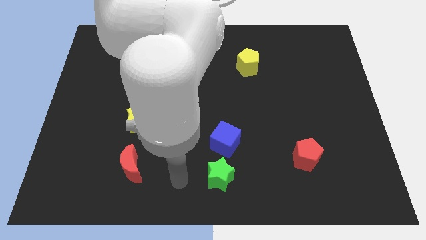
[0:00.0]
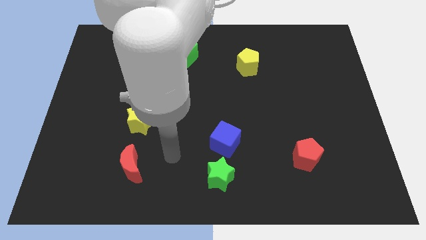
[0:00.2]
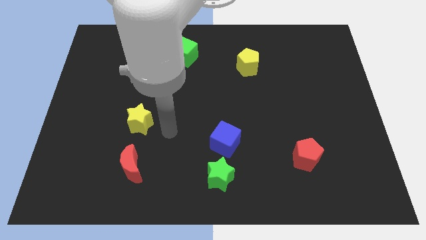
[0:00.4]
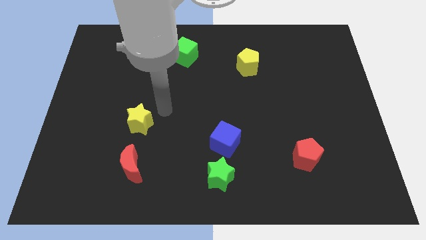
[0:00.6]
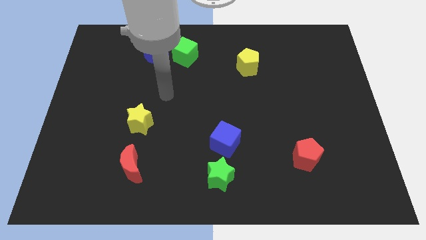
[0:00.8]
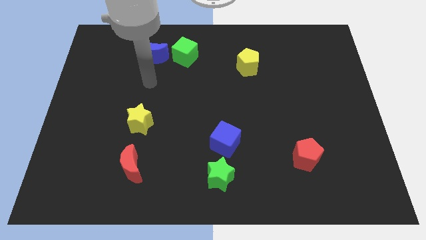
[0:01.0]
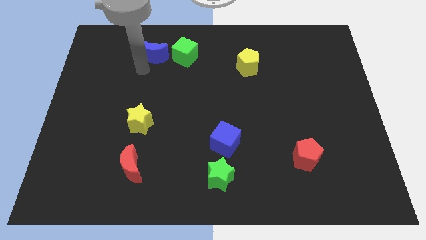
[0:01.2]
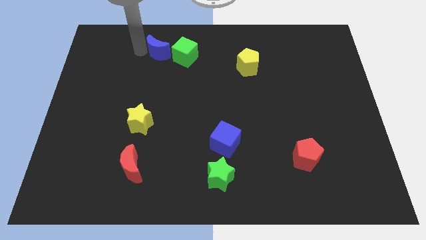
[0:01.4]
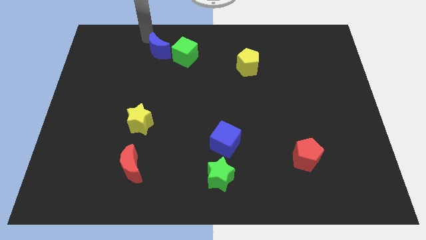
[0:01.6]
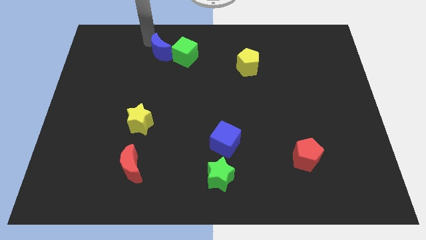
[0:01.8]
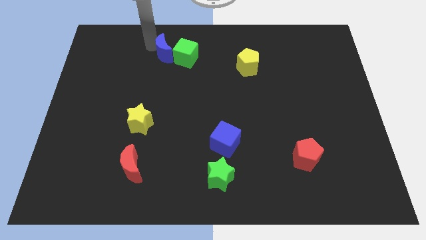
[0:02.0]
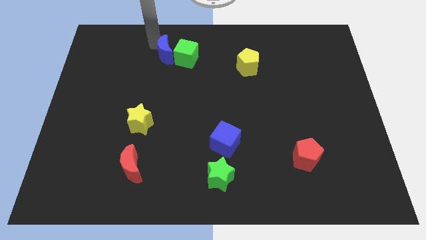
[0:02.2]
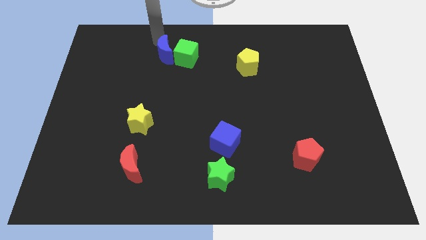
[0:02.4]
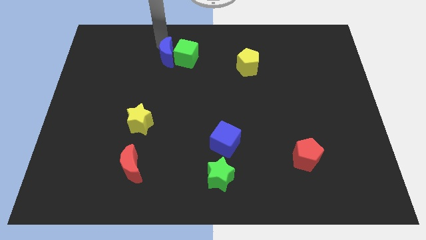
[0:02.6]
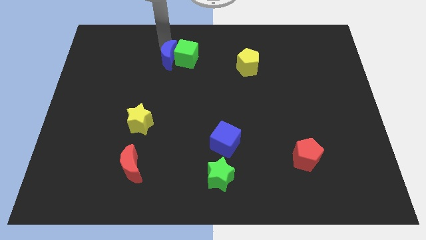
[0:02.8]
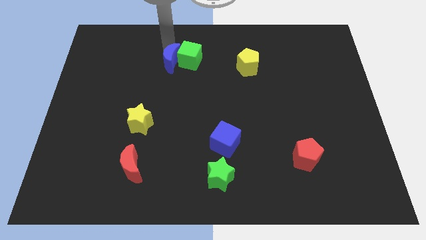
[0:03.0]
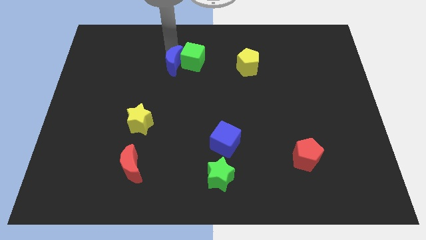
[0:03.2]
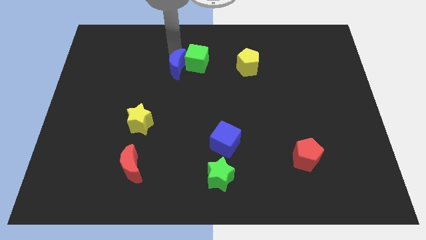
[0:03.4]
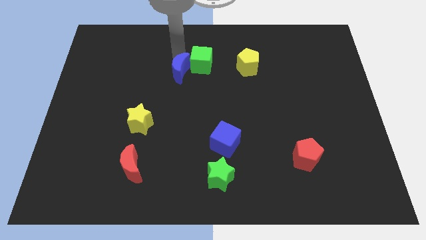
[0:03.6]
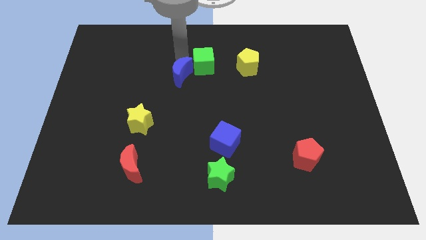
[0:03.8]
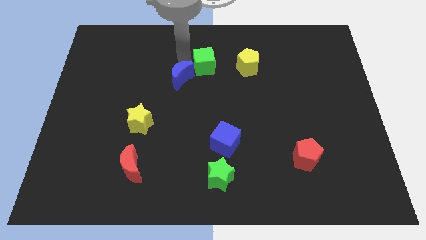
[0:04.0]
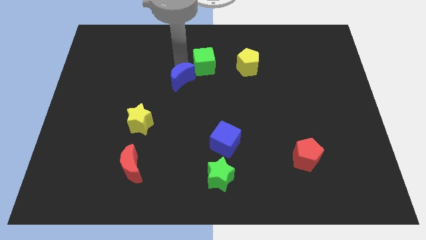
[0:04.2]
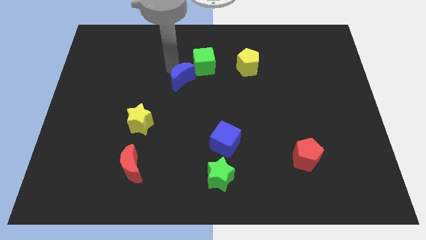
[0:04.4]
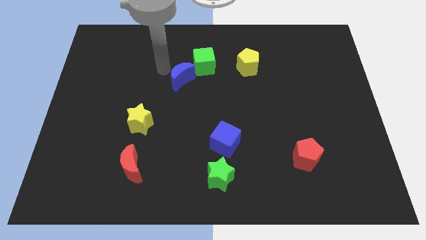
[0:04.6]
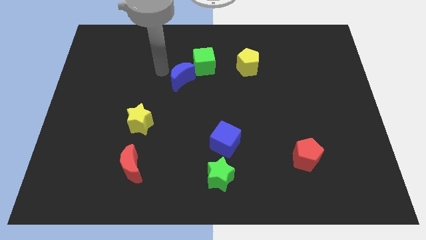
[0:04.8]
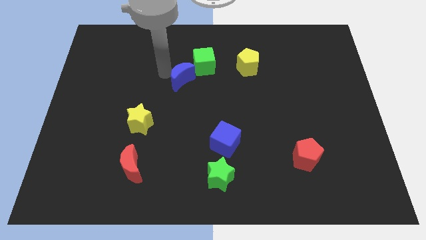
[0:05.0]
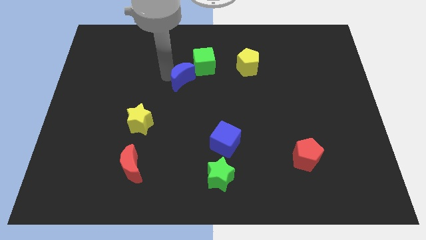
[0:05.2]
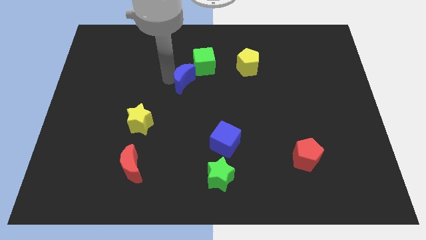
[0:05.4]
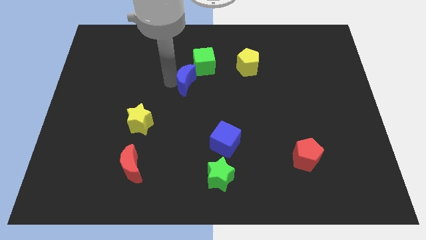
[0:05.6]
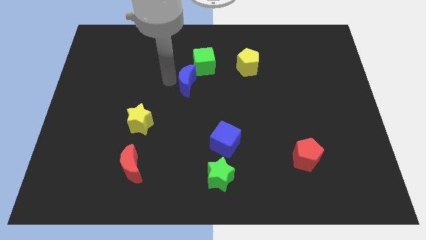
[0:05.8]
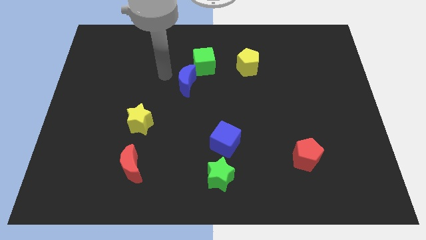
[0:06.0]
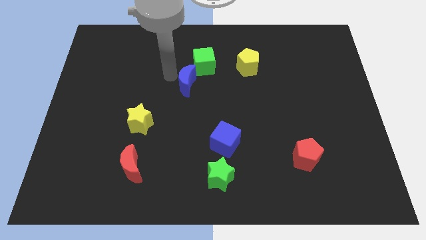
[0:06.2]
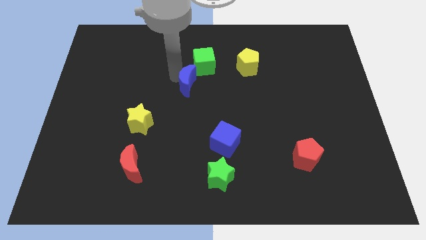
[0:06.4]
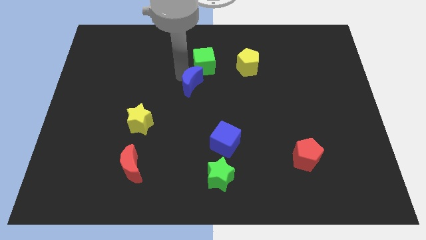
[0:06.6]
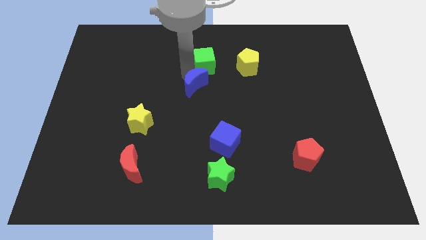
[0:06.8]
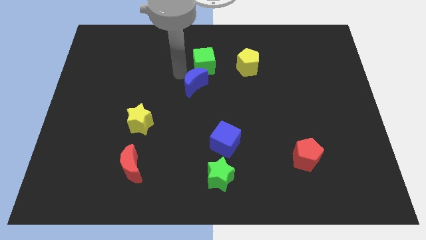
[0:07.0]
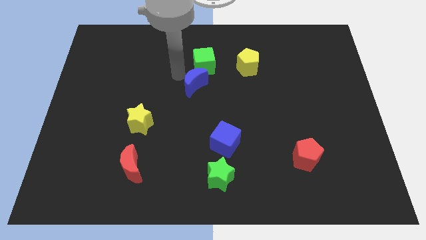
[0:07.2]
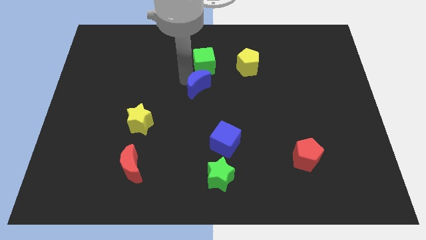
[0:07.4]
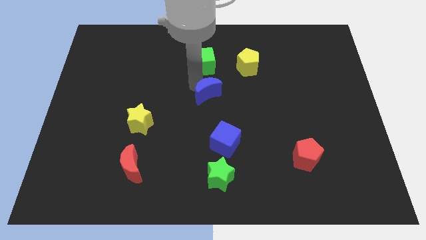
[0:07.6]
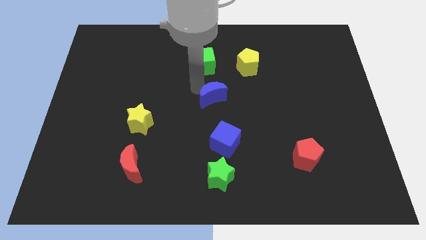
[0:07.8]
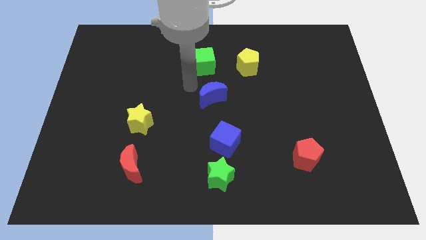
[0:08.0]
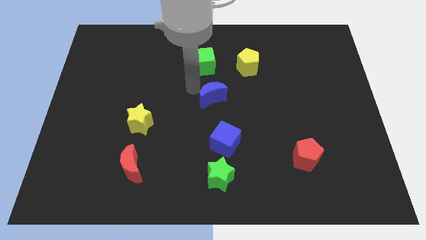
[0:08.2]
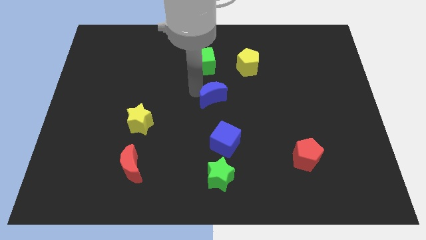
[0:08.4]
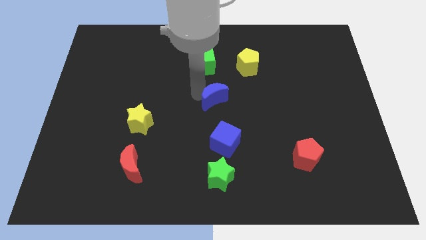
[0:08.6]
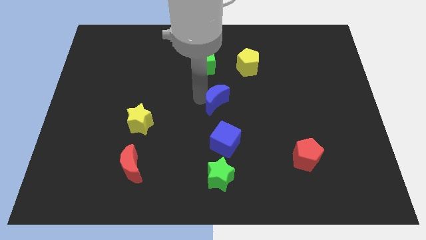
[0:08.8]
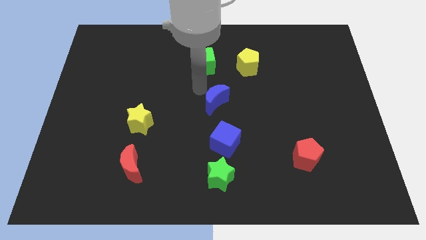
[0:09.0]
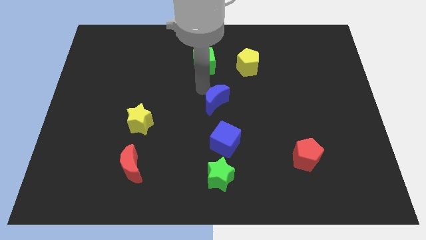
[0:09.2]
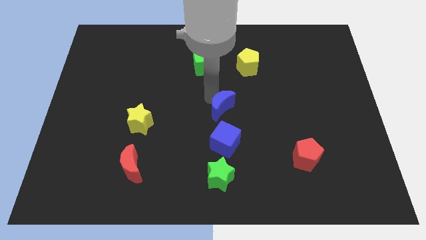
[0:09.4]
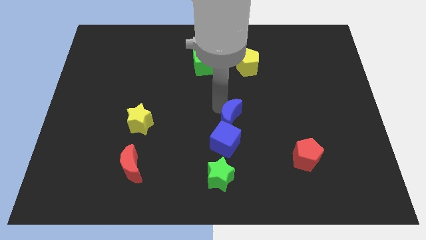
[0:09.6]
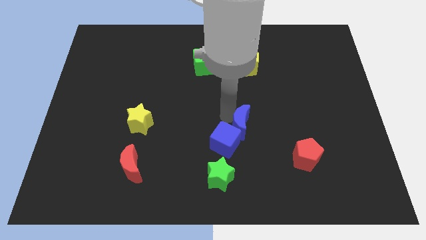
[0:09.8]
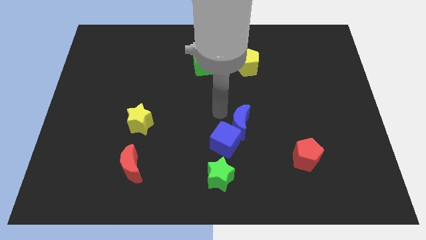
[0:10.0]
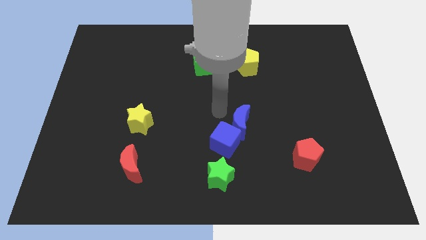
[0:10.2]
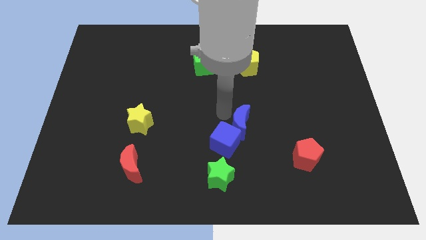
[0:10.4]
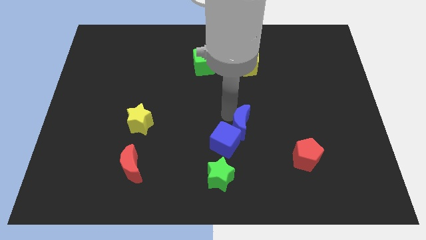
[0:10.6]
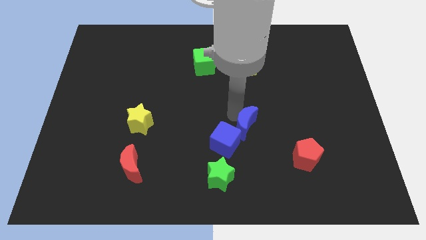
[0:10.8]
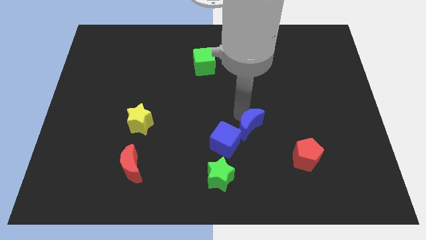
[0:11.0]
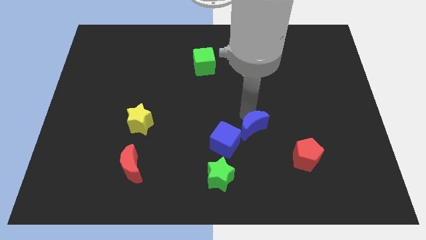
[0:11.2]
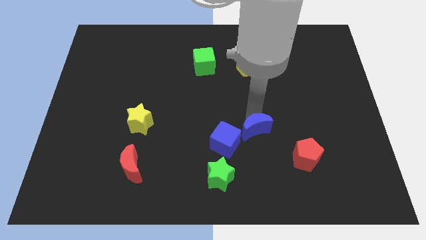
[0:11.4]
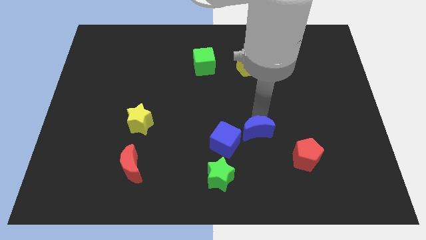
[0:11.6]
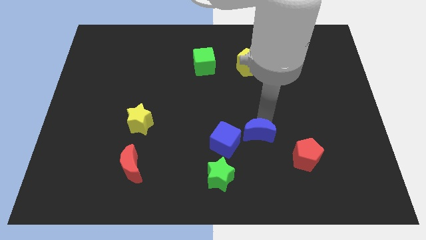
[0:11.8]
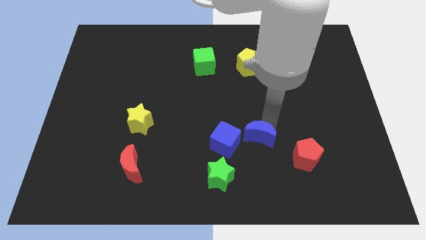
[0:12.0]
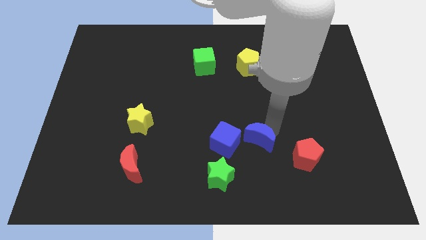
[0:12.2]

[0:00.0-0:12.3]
push the blue moon to the top right of the green star
